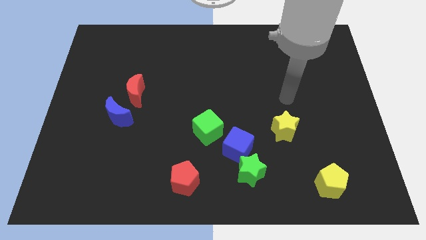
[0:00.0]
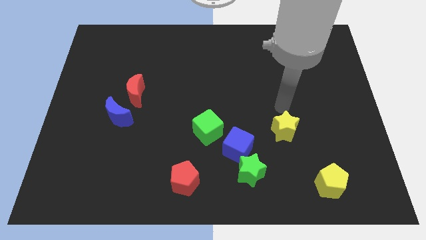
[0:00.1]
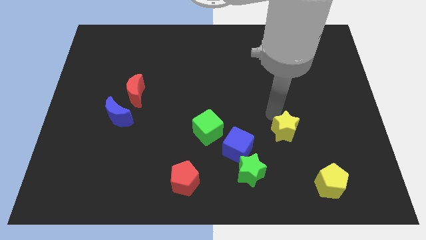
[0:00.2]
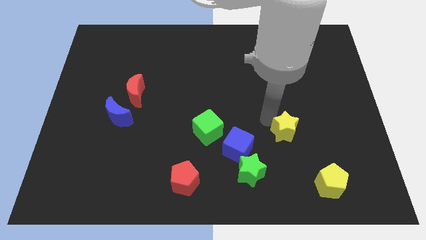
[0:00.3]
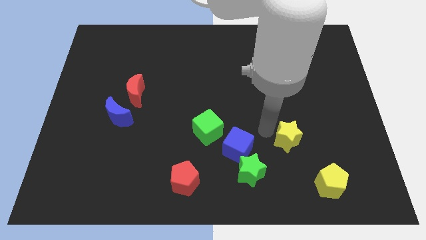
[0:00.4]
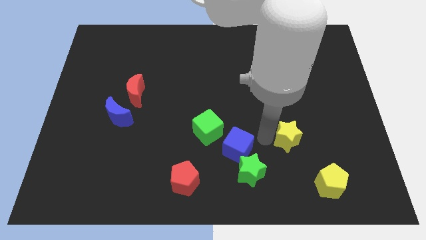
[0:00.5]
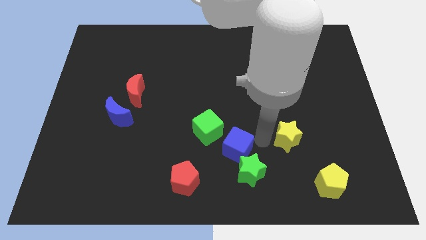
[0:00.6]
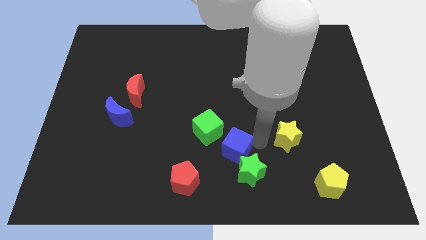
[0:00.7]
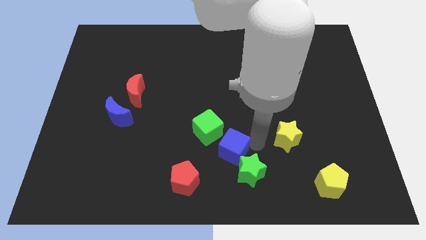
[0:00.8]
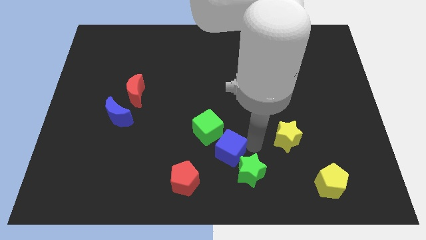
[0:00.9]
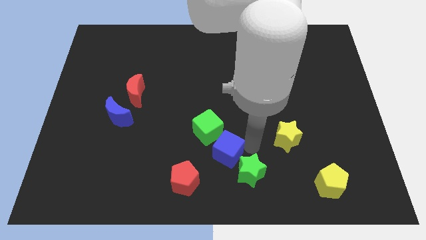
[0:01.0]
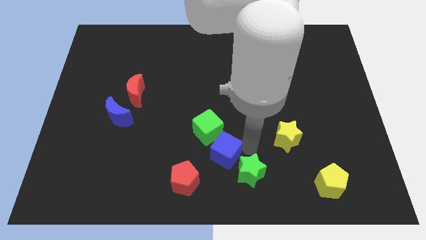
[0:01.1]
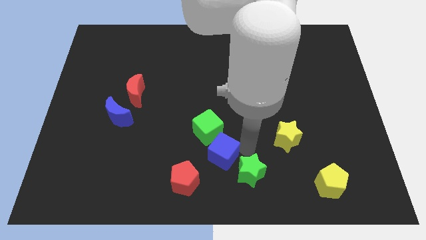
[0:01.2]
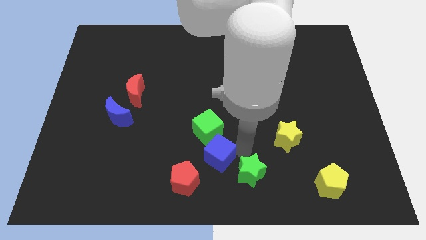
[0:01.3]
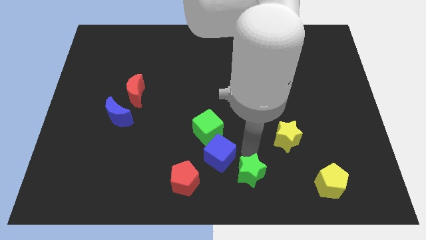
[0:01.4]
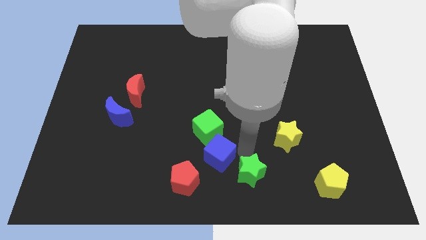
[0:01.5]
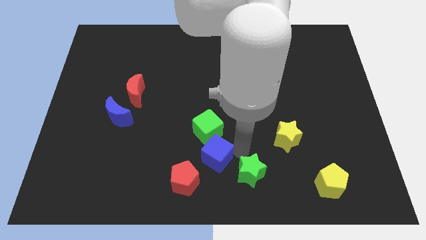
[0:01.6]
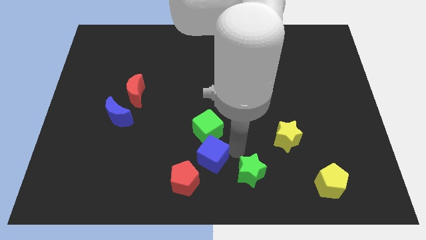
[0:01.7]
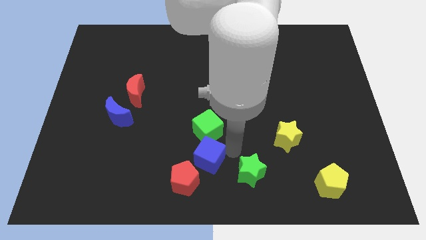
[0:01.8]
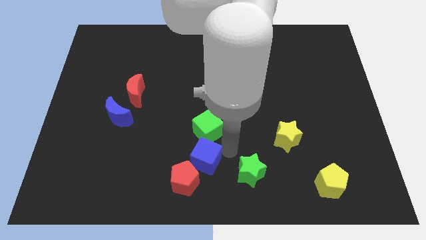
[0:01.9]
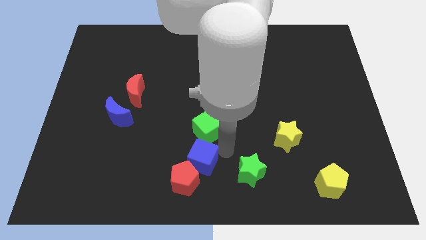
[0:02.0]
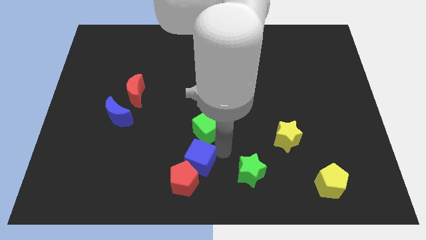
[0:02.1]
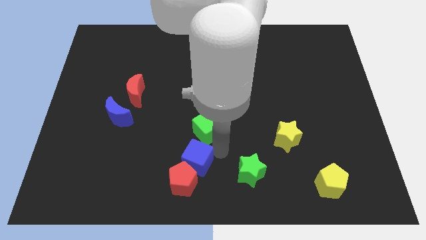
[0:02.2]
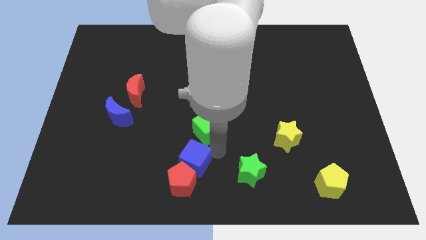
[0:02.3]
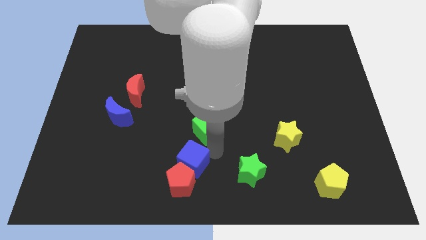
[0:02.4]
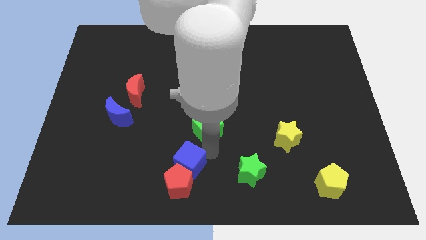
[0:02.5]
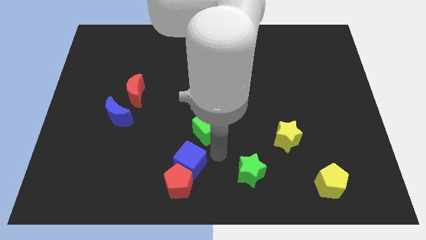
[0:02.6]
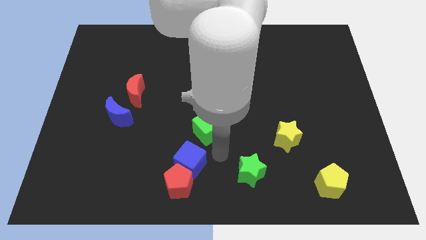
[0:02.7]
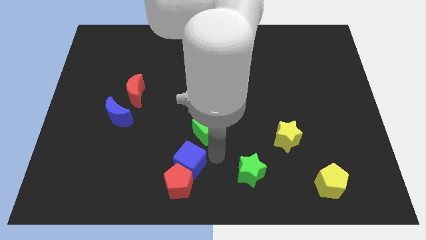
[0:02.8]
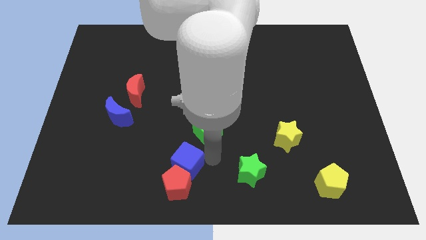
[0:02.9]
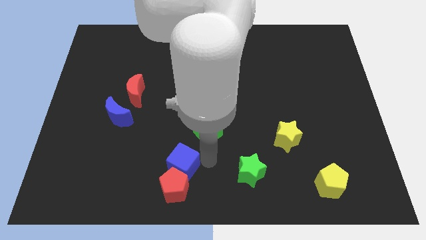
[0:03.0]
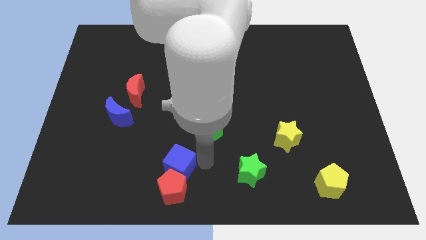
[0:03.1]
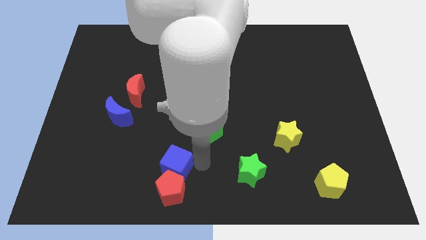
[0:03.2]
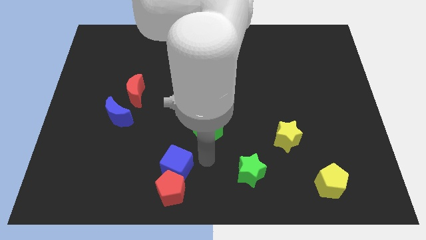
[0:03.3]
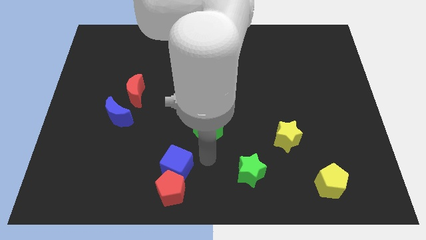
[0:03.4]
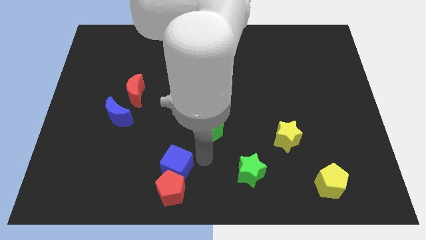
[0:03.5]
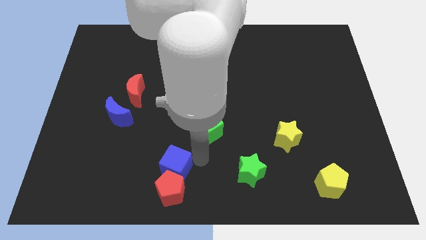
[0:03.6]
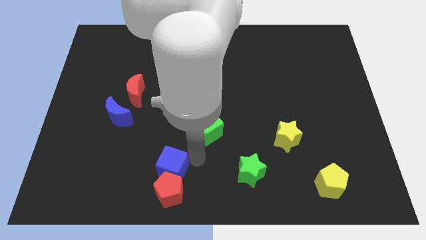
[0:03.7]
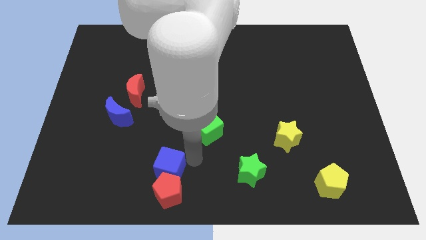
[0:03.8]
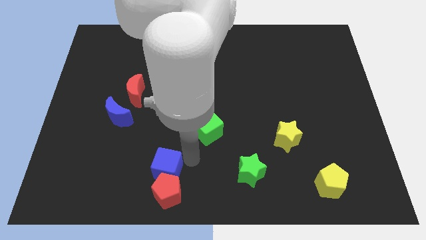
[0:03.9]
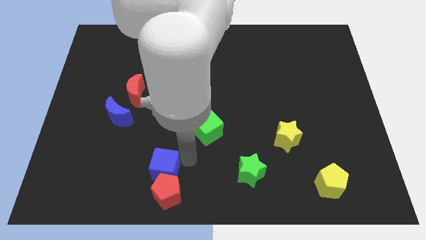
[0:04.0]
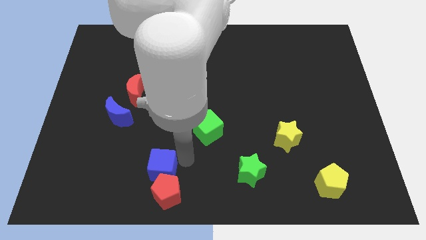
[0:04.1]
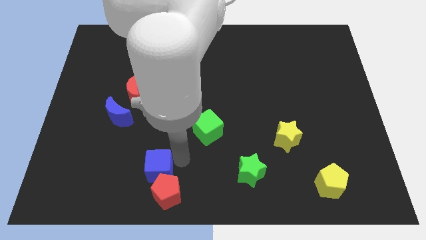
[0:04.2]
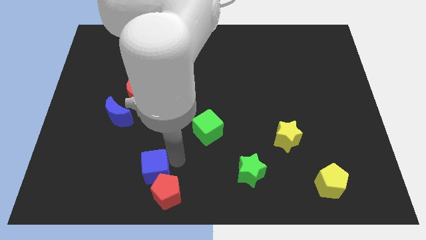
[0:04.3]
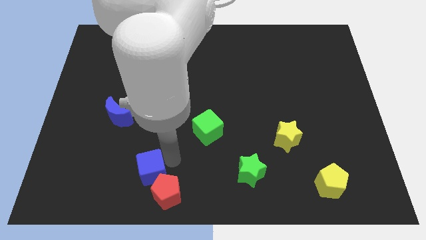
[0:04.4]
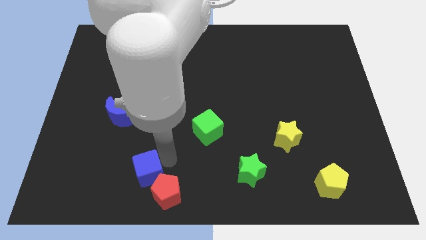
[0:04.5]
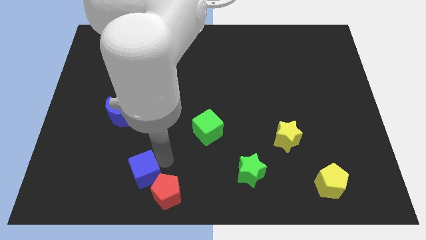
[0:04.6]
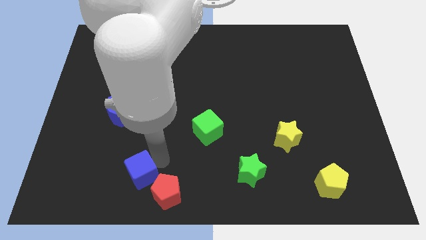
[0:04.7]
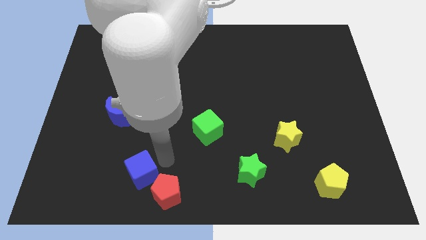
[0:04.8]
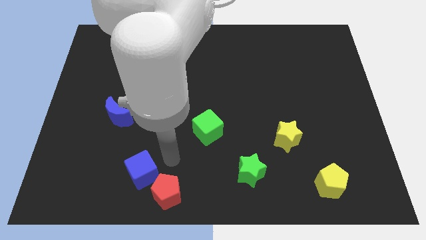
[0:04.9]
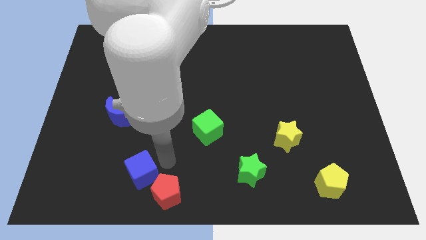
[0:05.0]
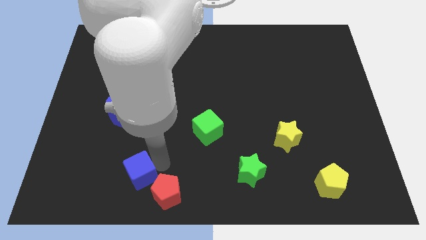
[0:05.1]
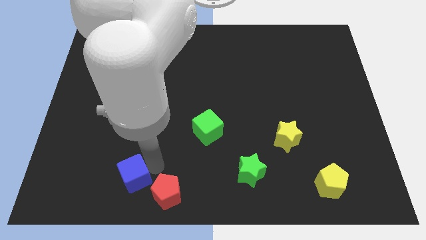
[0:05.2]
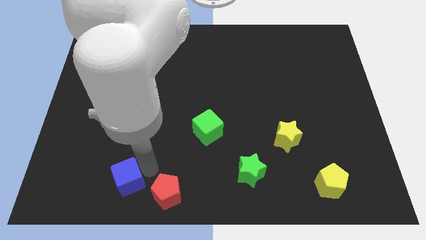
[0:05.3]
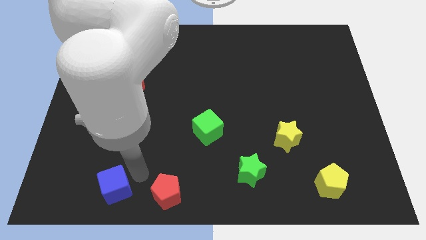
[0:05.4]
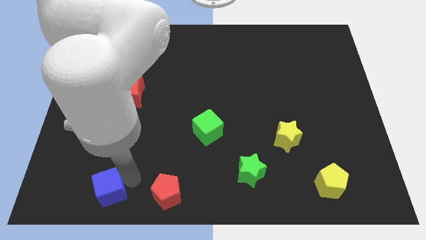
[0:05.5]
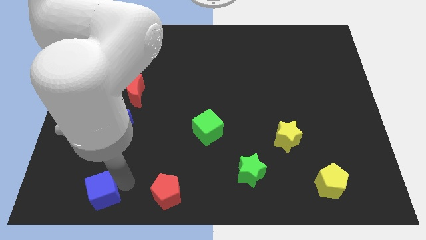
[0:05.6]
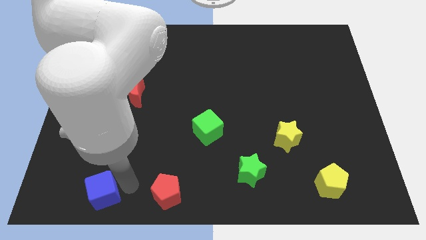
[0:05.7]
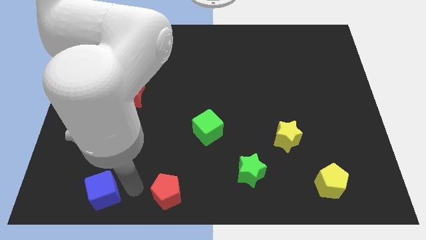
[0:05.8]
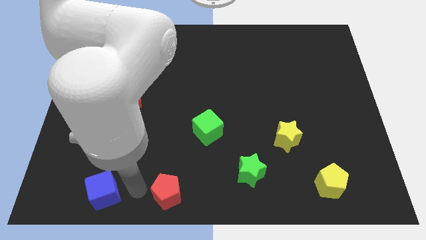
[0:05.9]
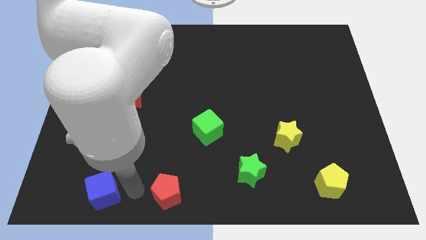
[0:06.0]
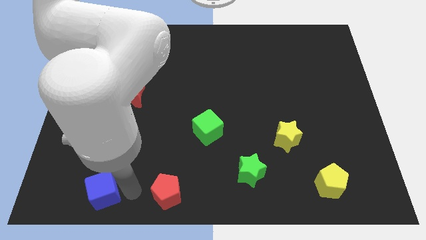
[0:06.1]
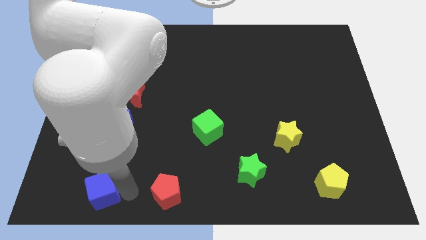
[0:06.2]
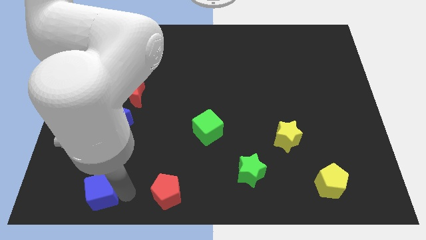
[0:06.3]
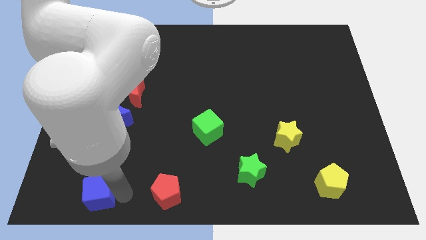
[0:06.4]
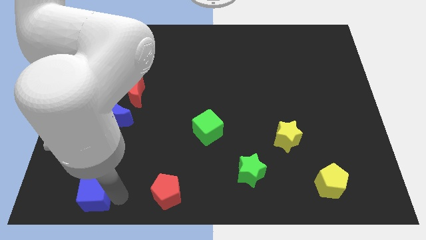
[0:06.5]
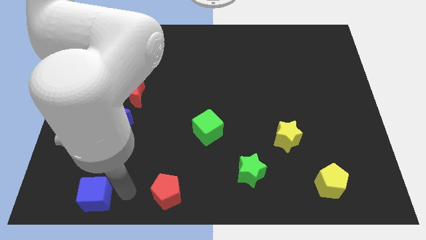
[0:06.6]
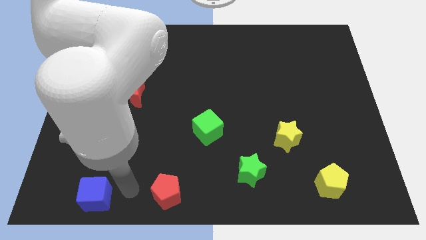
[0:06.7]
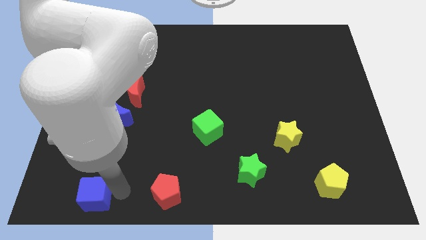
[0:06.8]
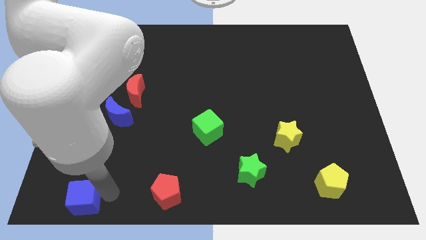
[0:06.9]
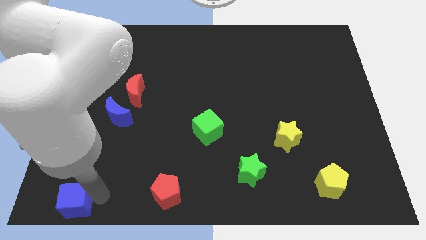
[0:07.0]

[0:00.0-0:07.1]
move the blue cube to the bottom left of the board
